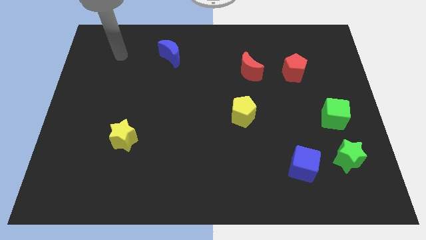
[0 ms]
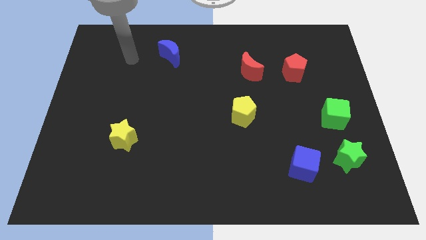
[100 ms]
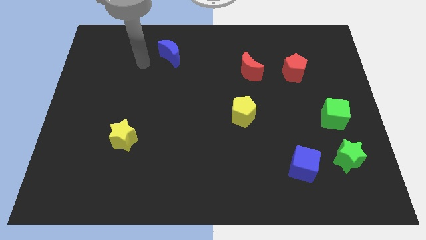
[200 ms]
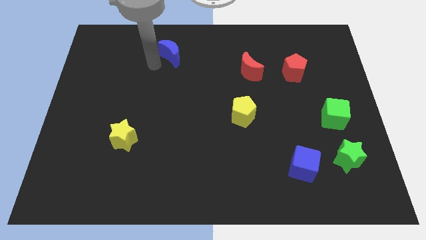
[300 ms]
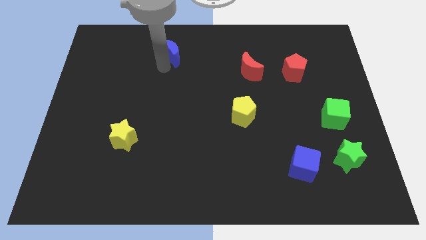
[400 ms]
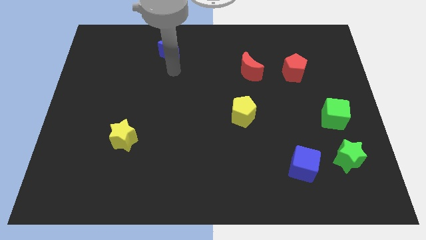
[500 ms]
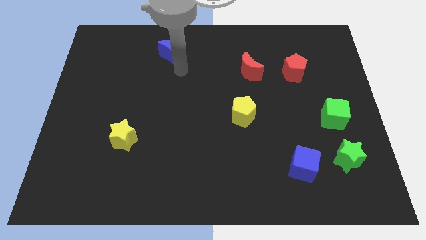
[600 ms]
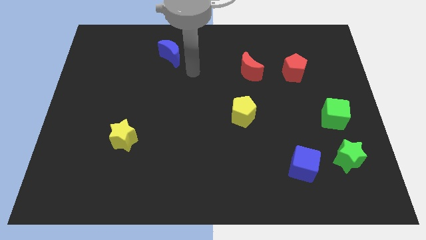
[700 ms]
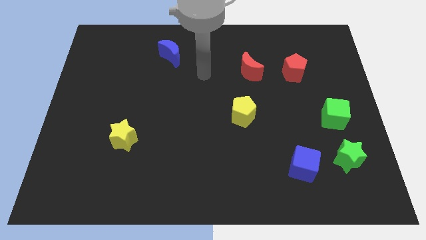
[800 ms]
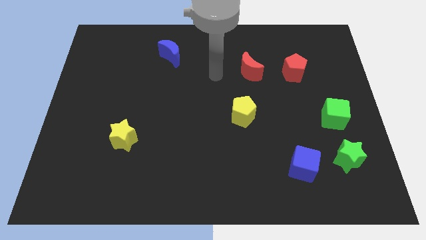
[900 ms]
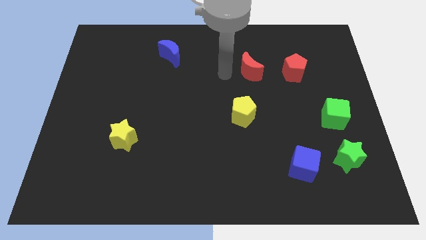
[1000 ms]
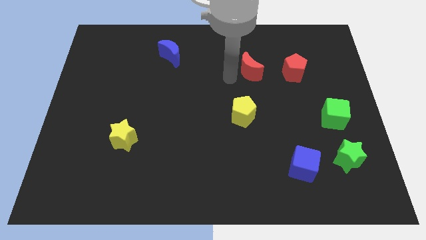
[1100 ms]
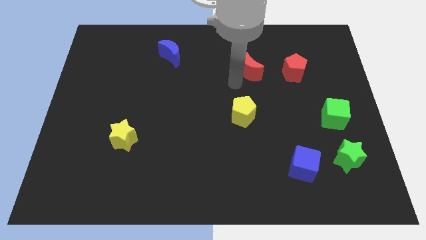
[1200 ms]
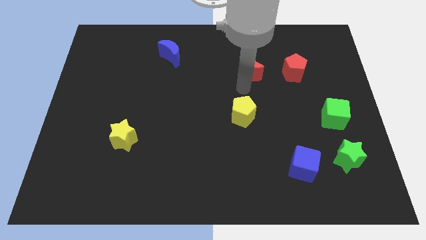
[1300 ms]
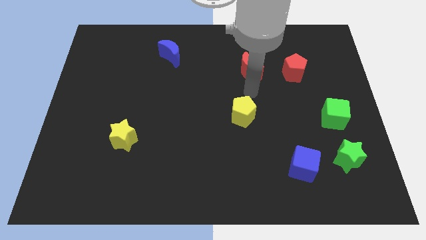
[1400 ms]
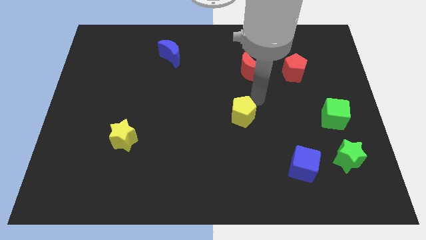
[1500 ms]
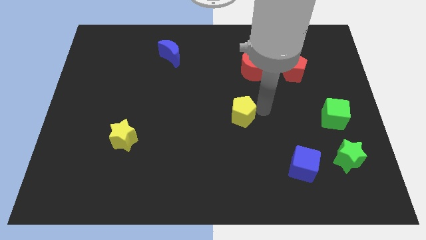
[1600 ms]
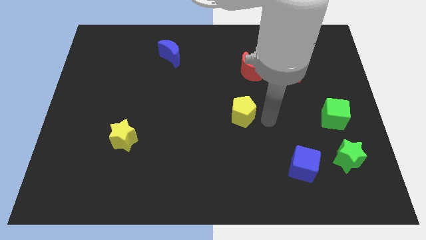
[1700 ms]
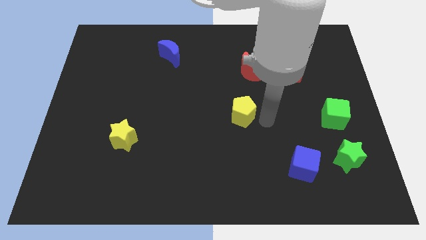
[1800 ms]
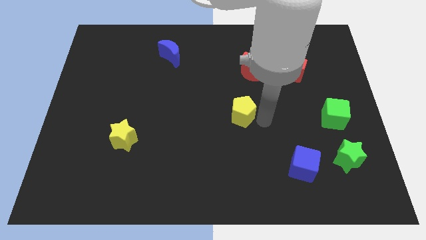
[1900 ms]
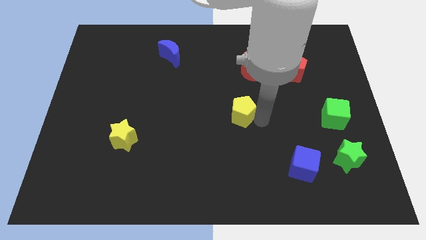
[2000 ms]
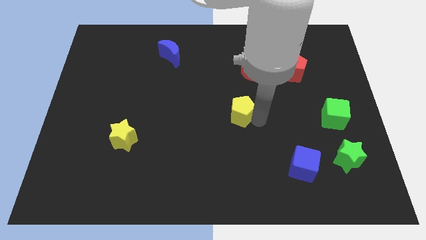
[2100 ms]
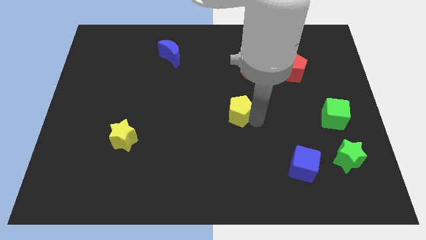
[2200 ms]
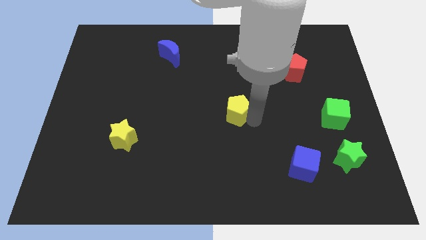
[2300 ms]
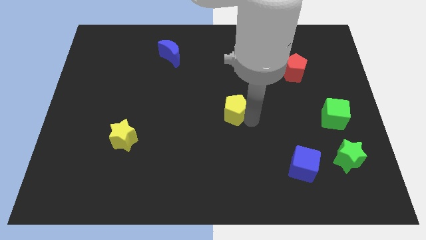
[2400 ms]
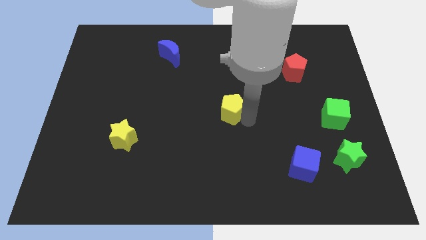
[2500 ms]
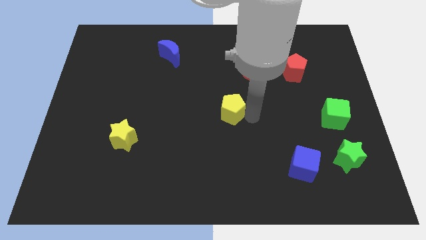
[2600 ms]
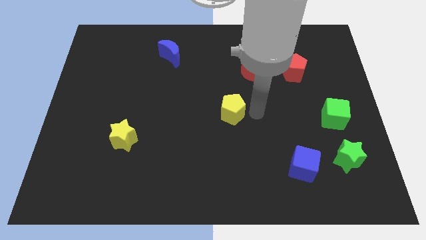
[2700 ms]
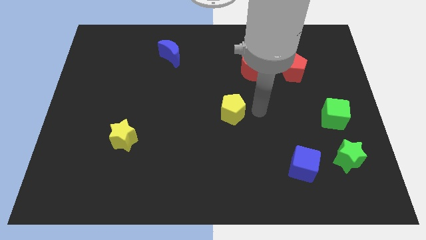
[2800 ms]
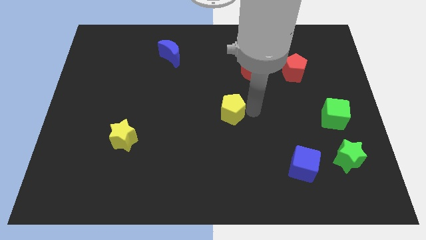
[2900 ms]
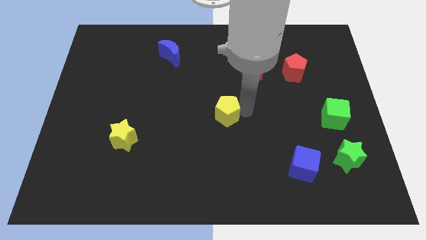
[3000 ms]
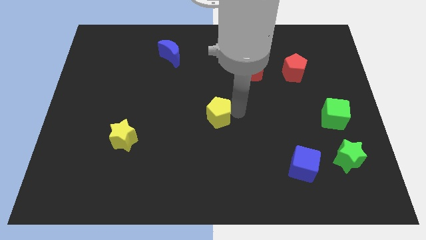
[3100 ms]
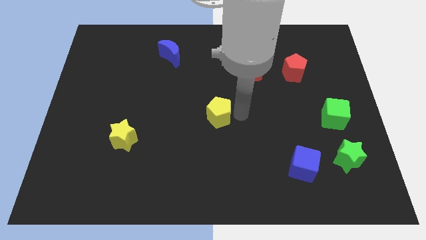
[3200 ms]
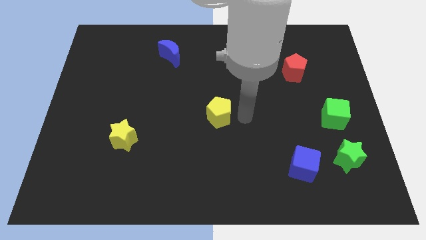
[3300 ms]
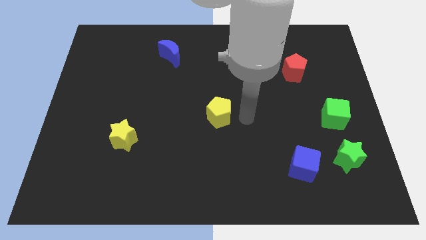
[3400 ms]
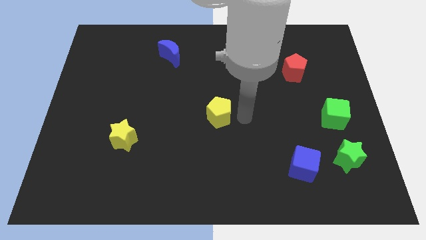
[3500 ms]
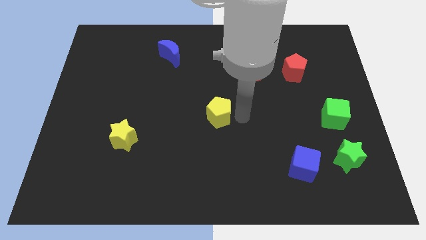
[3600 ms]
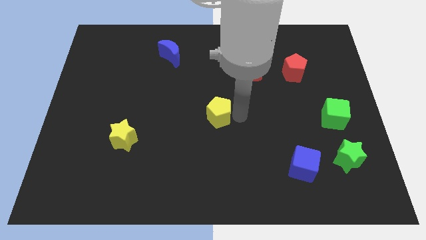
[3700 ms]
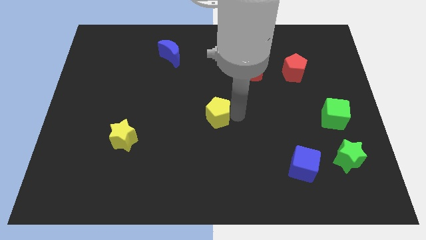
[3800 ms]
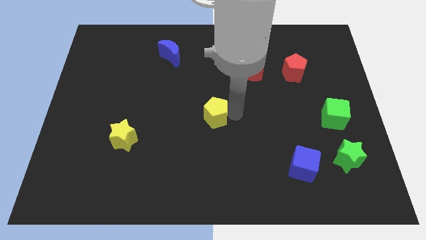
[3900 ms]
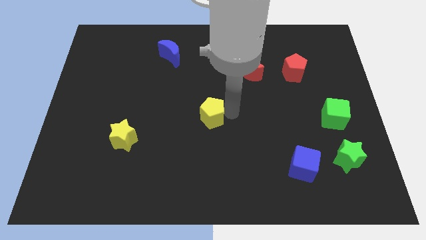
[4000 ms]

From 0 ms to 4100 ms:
push the yellow pentagon to the left a little

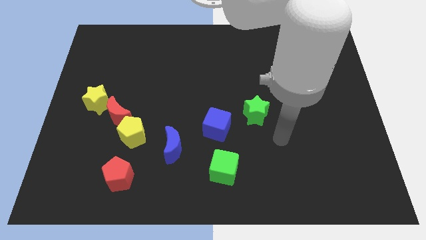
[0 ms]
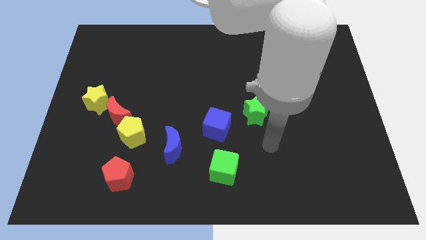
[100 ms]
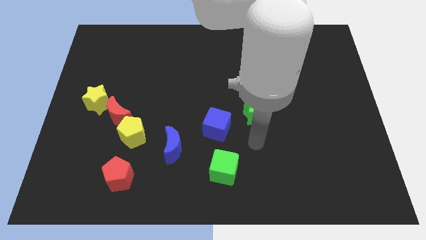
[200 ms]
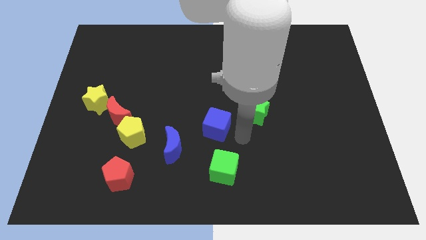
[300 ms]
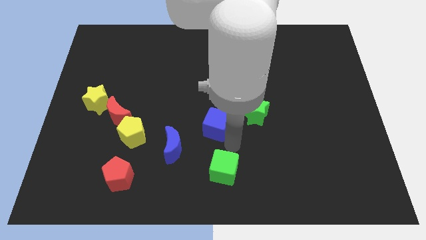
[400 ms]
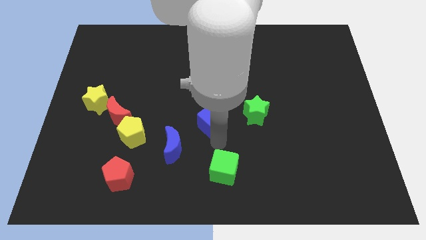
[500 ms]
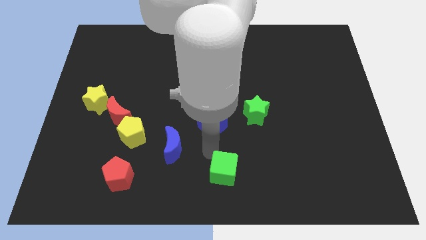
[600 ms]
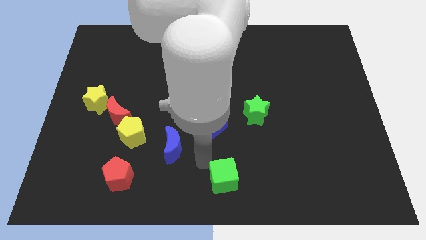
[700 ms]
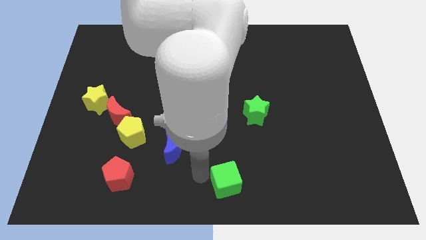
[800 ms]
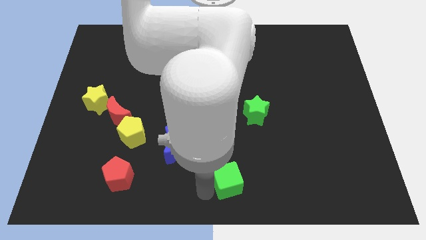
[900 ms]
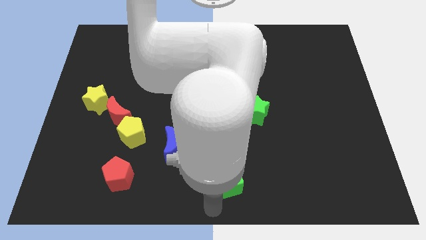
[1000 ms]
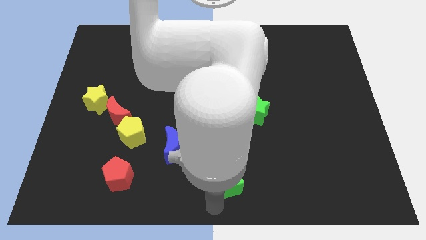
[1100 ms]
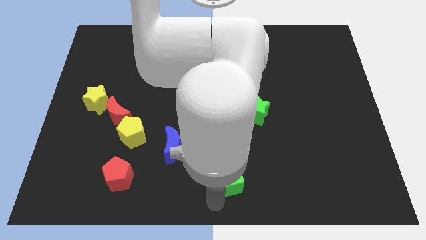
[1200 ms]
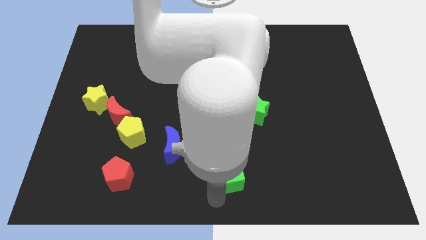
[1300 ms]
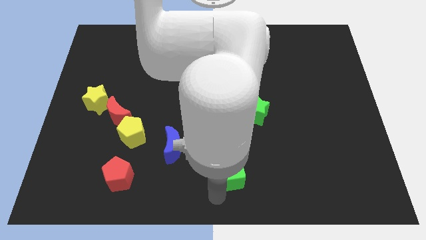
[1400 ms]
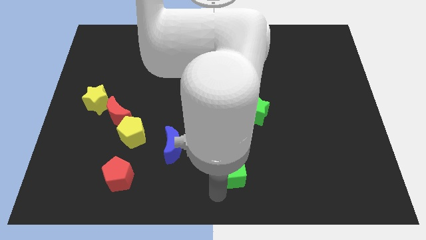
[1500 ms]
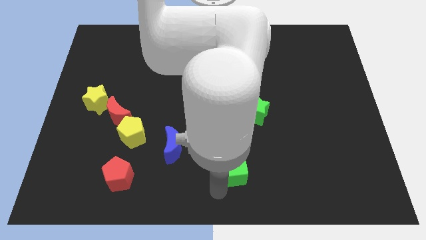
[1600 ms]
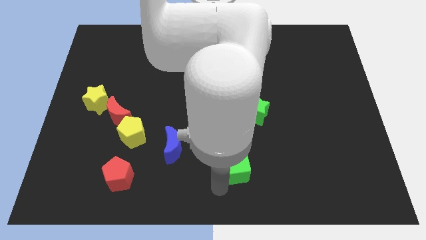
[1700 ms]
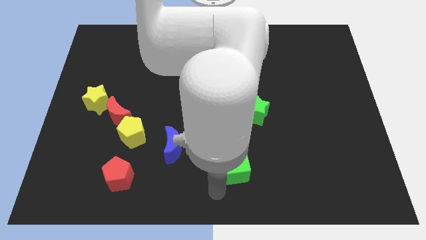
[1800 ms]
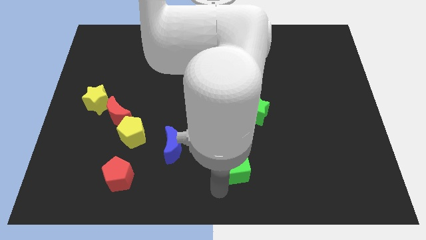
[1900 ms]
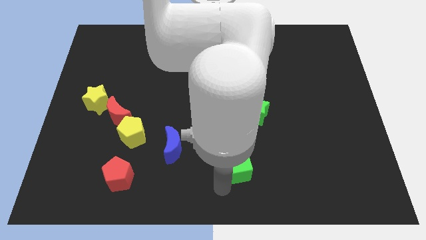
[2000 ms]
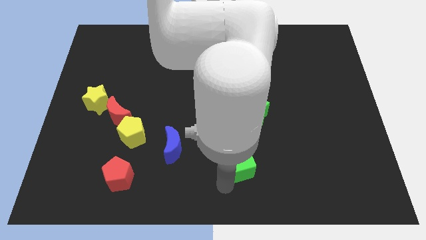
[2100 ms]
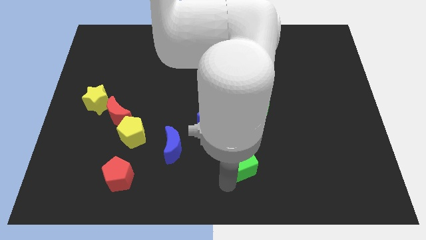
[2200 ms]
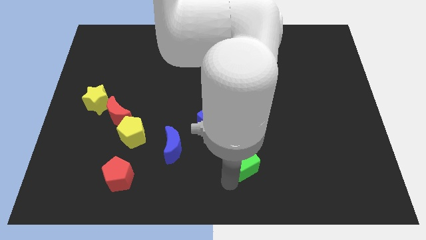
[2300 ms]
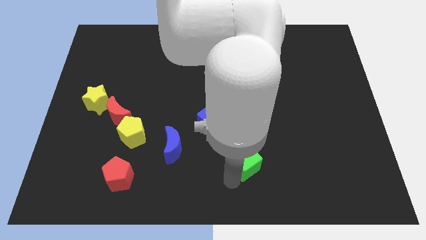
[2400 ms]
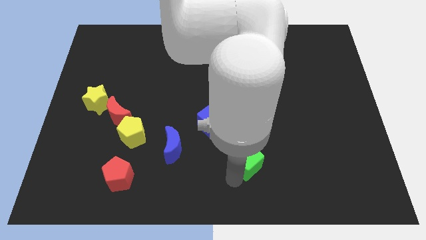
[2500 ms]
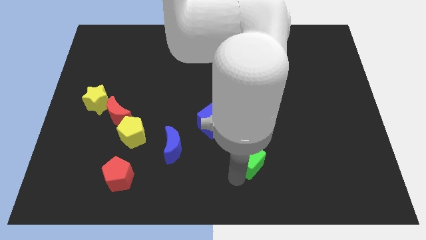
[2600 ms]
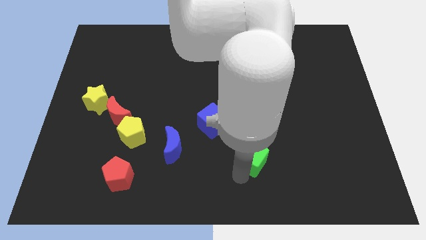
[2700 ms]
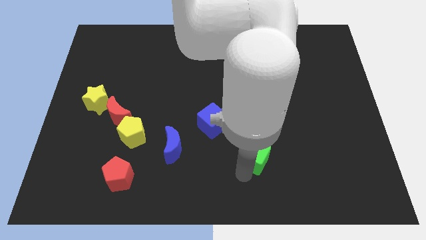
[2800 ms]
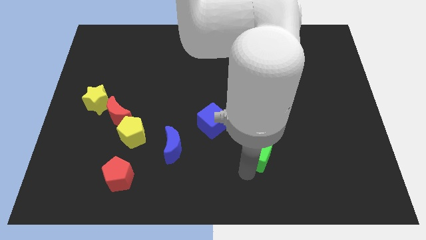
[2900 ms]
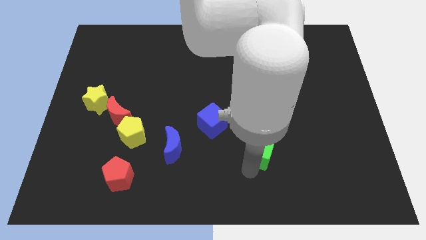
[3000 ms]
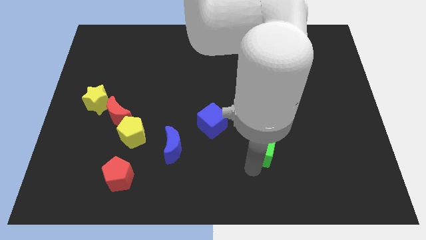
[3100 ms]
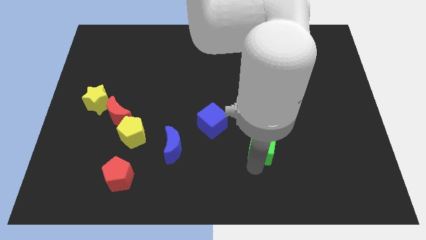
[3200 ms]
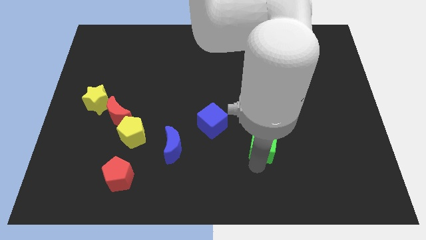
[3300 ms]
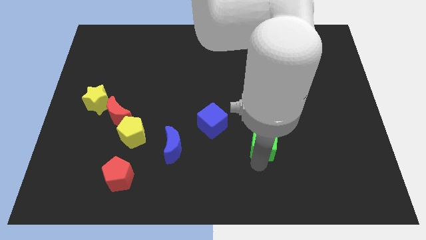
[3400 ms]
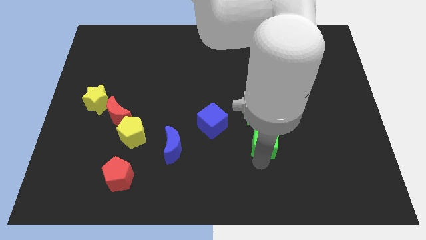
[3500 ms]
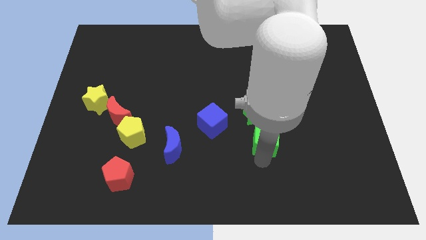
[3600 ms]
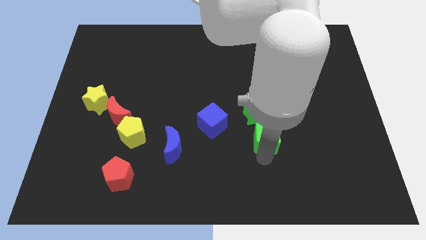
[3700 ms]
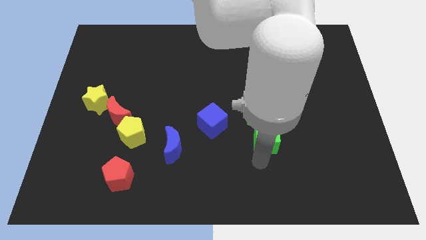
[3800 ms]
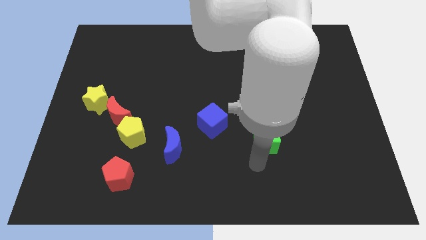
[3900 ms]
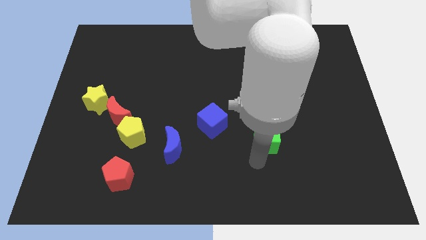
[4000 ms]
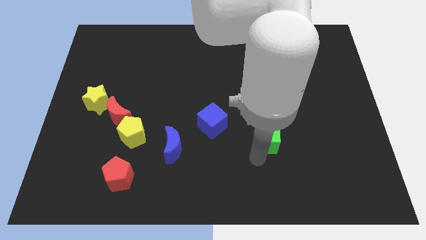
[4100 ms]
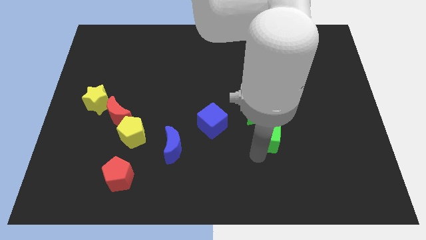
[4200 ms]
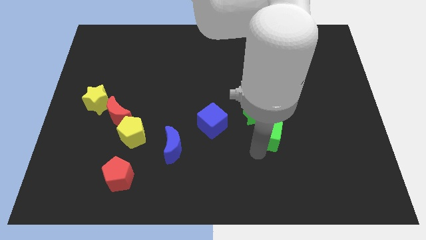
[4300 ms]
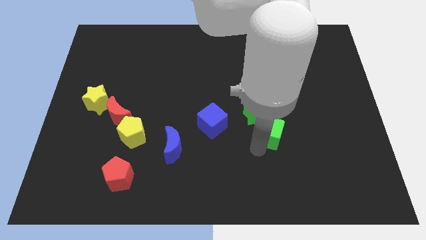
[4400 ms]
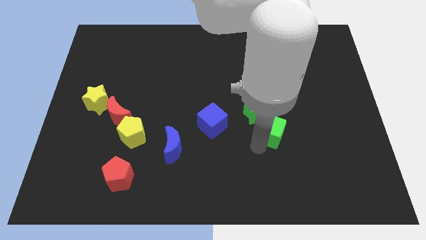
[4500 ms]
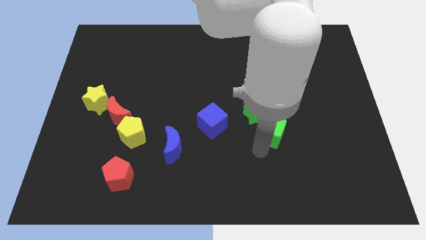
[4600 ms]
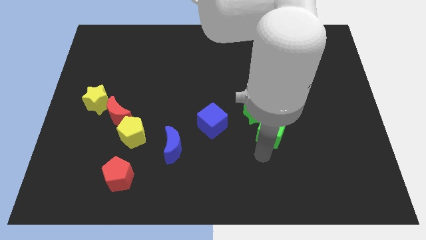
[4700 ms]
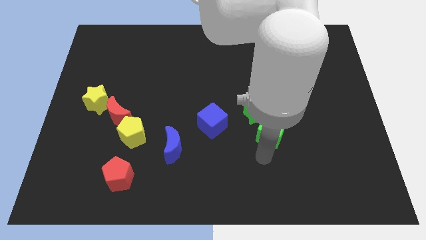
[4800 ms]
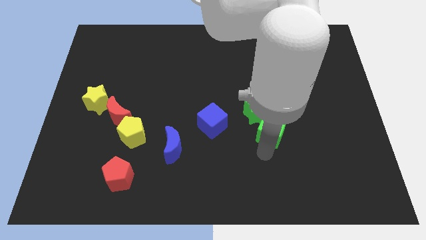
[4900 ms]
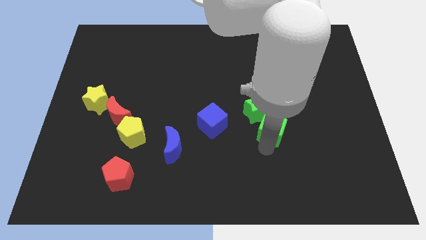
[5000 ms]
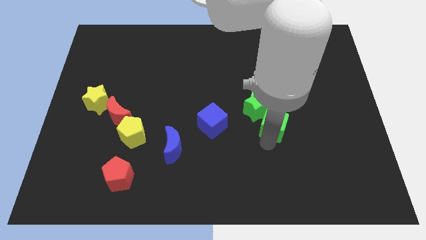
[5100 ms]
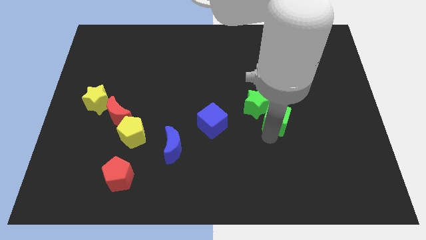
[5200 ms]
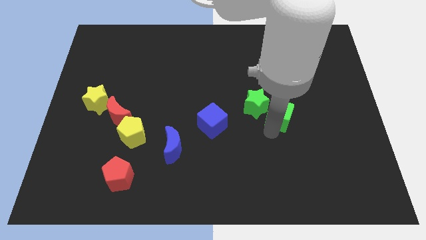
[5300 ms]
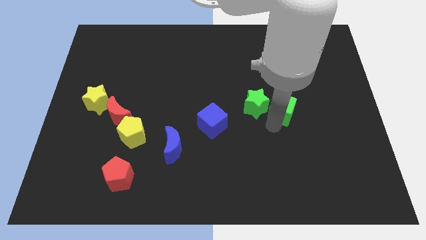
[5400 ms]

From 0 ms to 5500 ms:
push the green cube up and to the right
